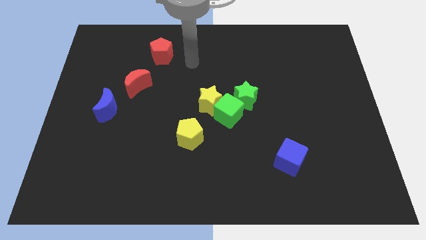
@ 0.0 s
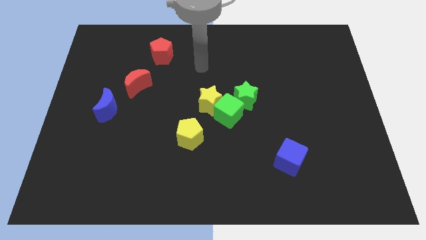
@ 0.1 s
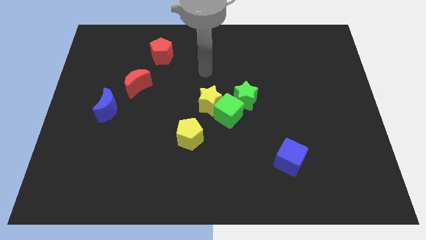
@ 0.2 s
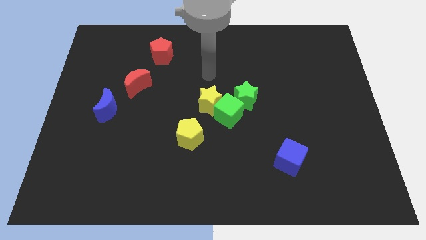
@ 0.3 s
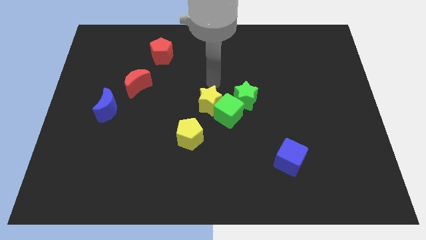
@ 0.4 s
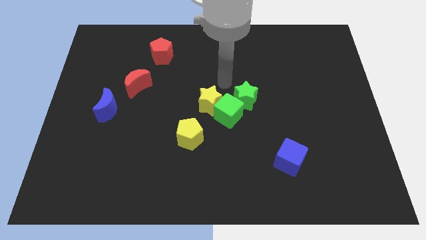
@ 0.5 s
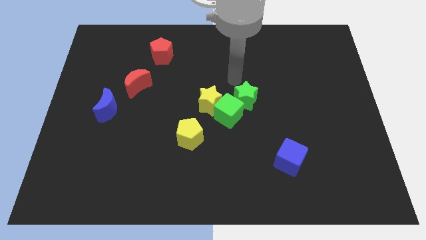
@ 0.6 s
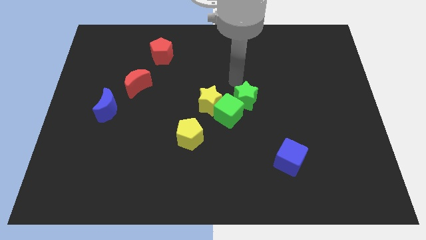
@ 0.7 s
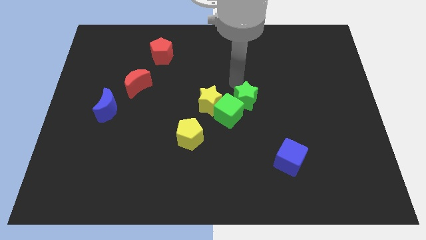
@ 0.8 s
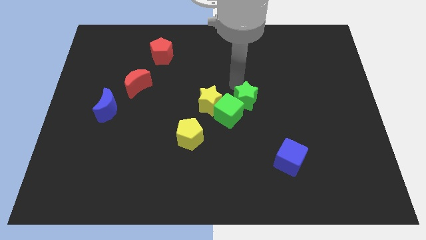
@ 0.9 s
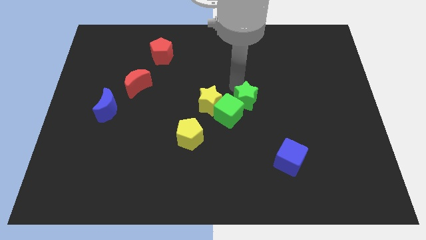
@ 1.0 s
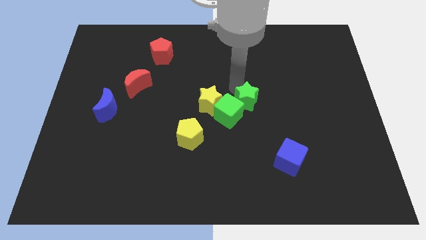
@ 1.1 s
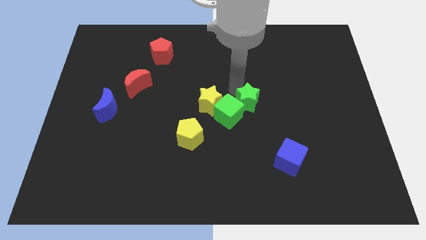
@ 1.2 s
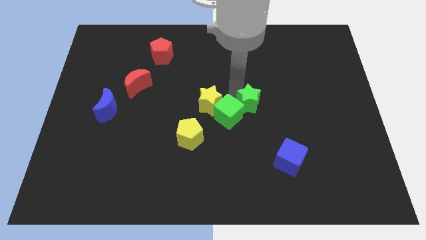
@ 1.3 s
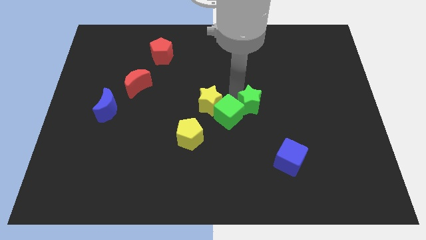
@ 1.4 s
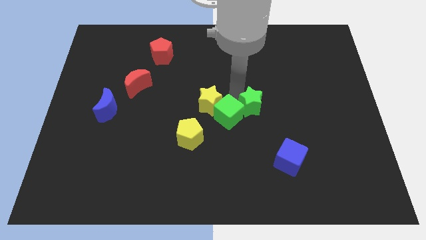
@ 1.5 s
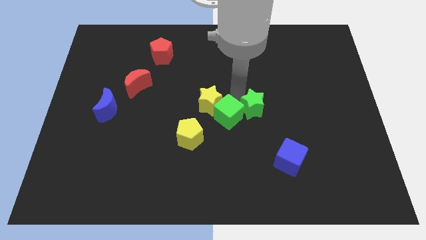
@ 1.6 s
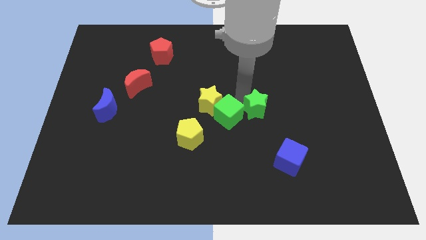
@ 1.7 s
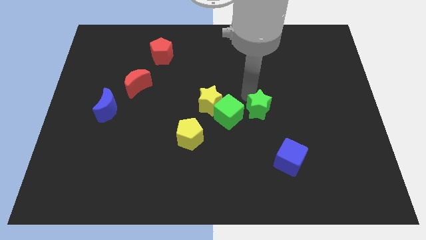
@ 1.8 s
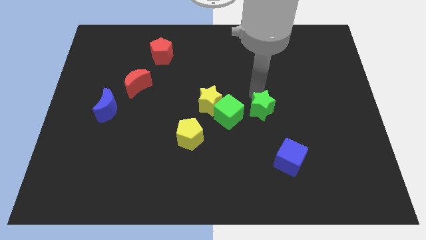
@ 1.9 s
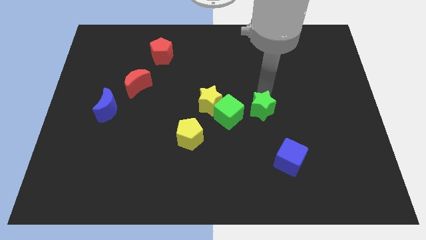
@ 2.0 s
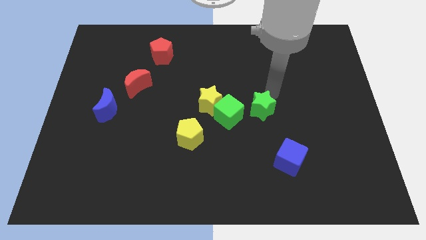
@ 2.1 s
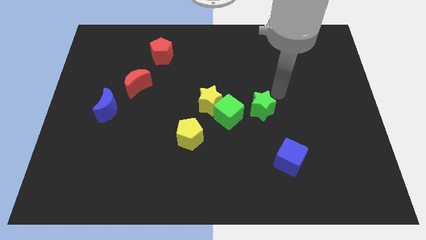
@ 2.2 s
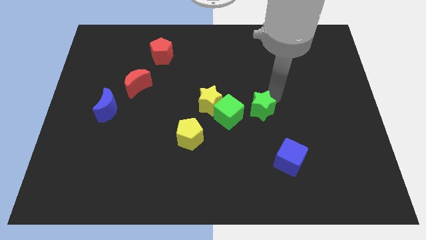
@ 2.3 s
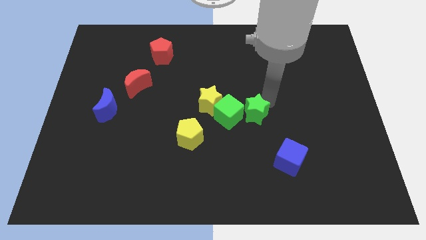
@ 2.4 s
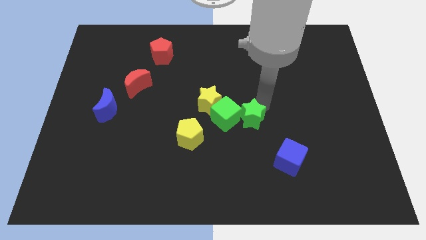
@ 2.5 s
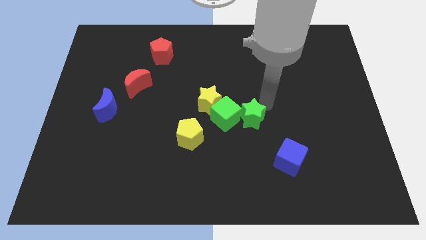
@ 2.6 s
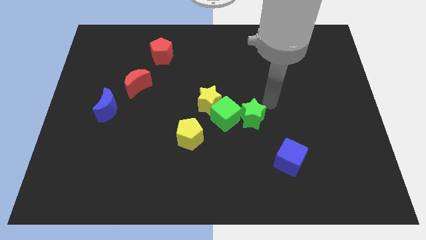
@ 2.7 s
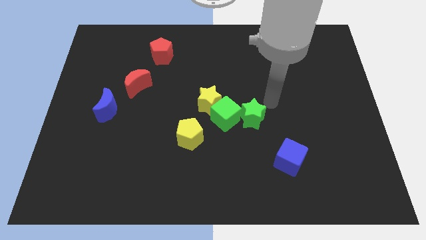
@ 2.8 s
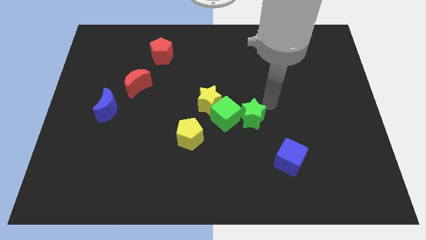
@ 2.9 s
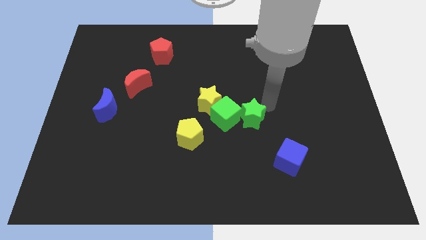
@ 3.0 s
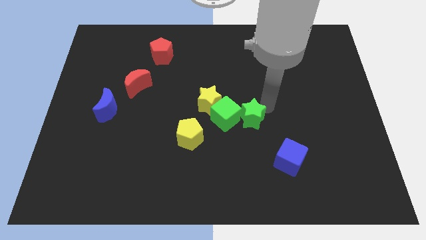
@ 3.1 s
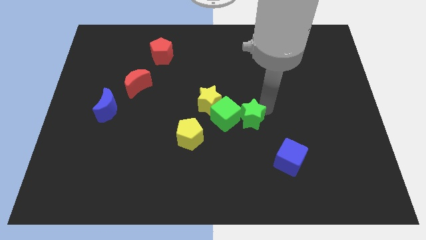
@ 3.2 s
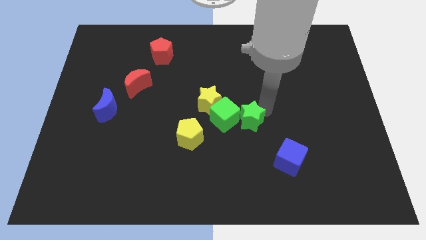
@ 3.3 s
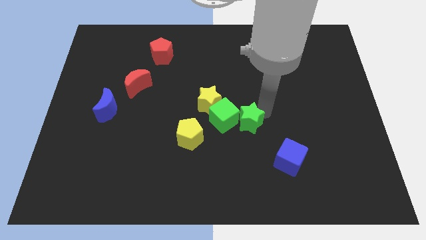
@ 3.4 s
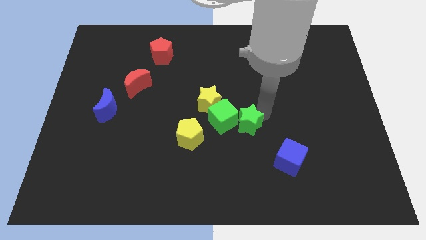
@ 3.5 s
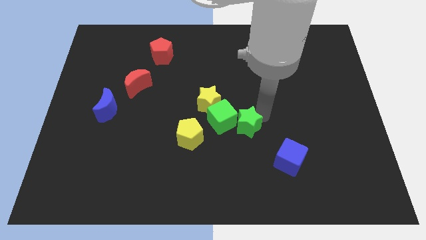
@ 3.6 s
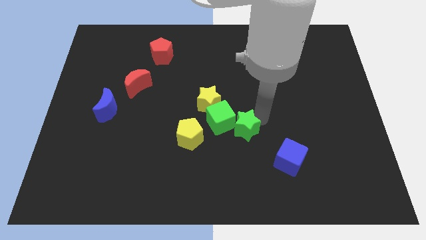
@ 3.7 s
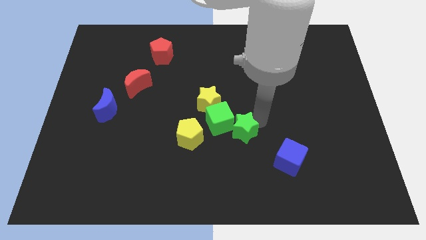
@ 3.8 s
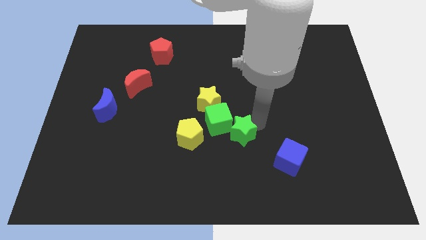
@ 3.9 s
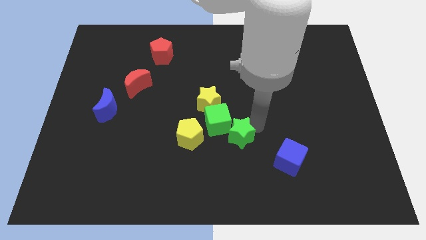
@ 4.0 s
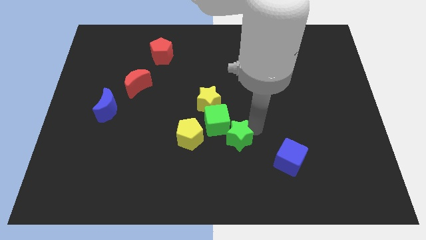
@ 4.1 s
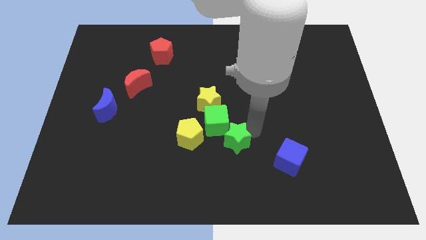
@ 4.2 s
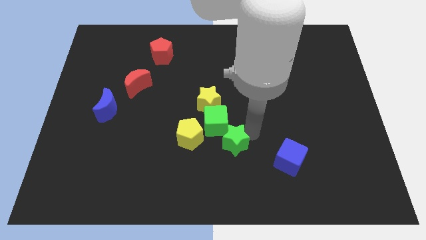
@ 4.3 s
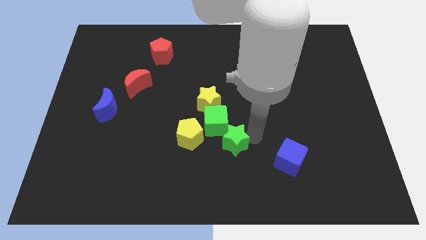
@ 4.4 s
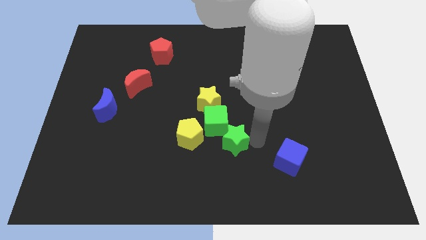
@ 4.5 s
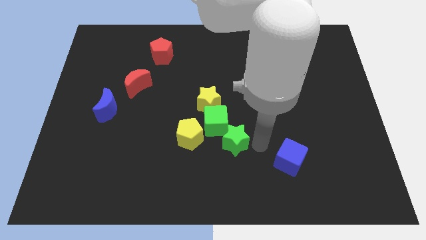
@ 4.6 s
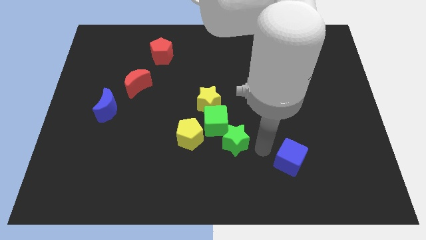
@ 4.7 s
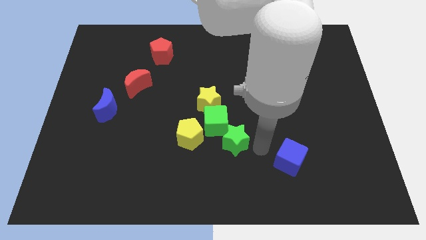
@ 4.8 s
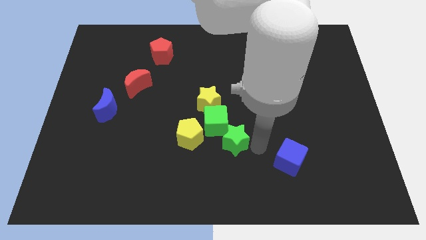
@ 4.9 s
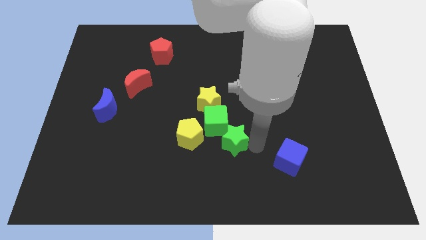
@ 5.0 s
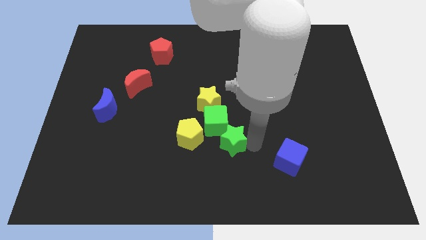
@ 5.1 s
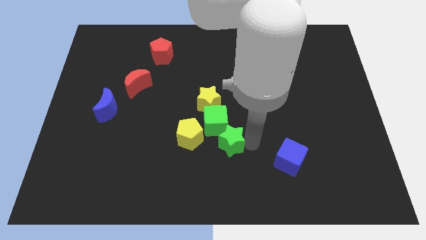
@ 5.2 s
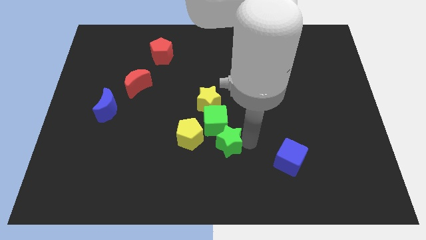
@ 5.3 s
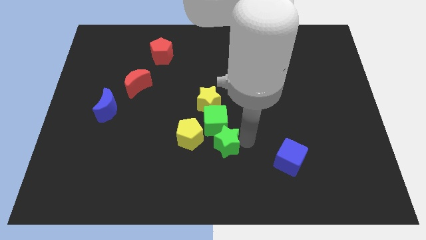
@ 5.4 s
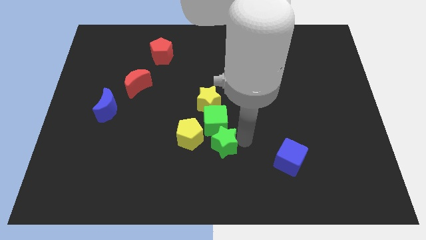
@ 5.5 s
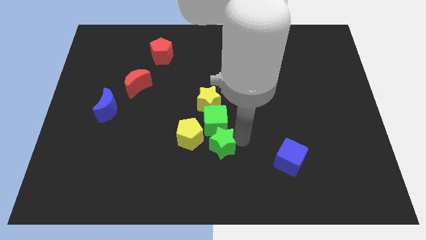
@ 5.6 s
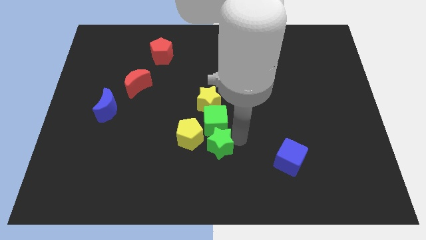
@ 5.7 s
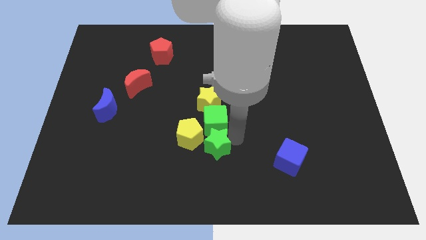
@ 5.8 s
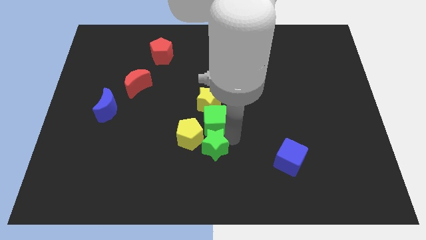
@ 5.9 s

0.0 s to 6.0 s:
move the green star to the yellow pentagon
